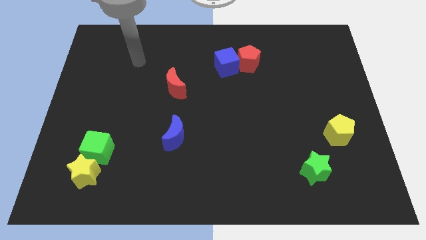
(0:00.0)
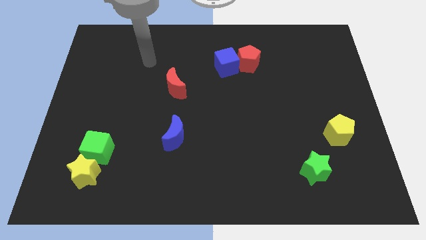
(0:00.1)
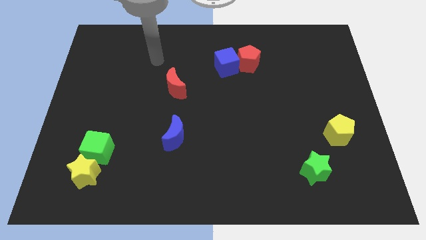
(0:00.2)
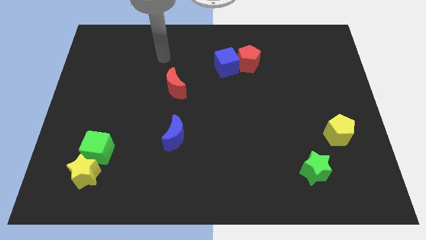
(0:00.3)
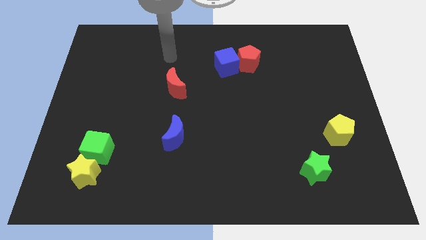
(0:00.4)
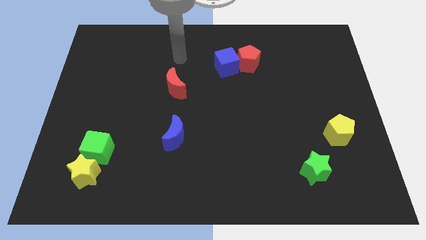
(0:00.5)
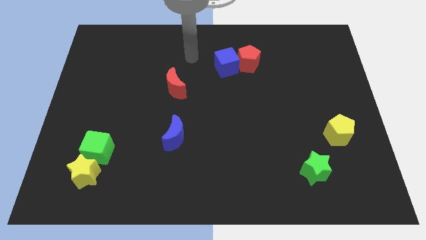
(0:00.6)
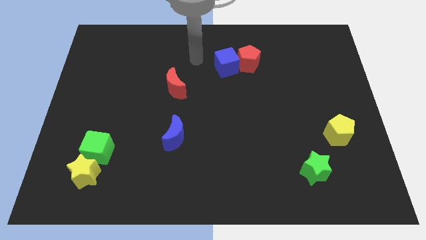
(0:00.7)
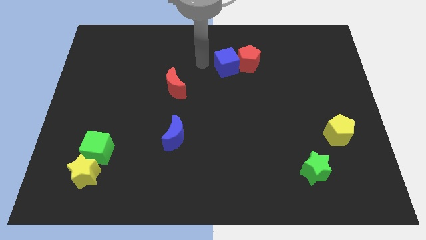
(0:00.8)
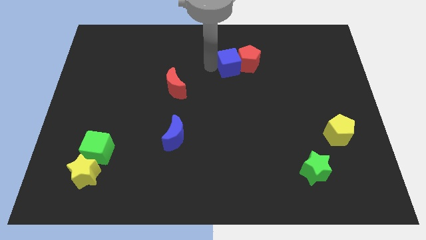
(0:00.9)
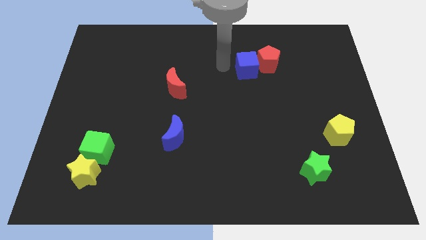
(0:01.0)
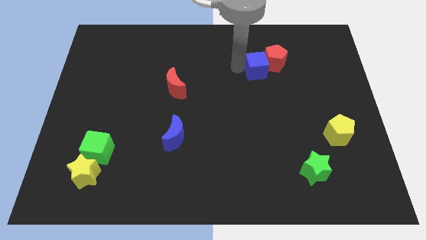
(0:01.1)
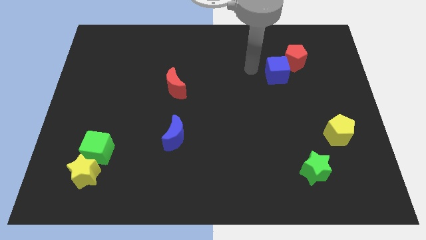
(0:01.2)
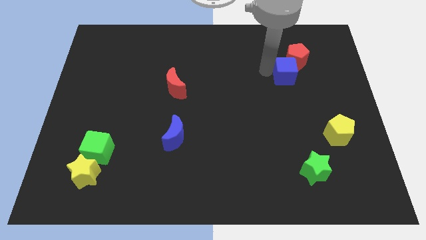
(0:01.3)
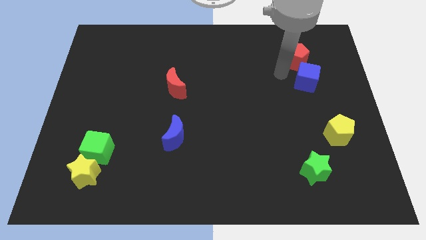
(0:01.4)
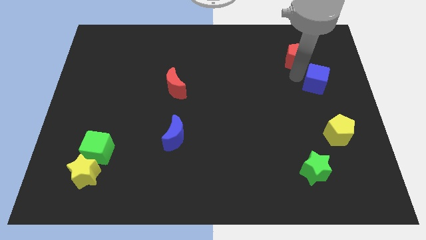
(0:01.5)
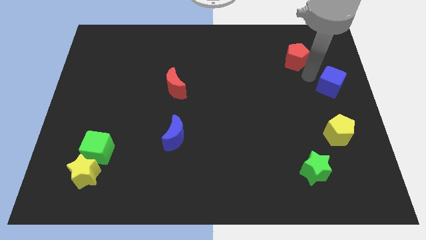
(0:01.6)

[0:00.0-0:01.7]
move the red pentagon away from the blue cube

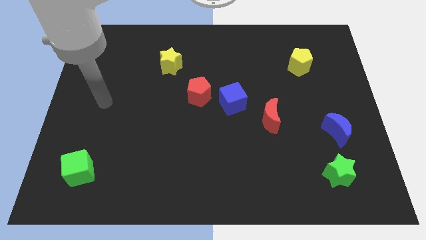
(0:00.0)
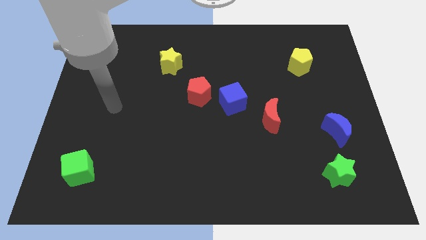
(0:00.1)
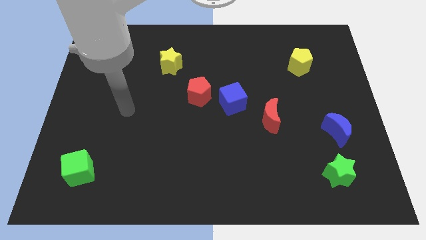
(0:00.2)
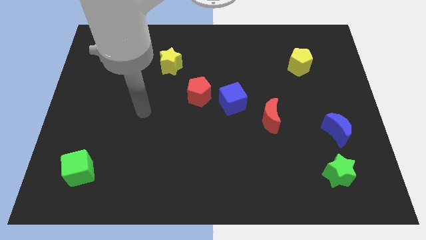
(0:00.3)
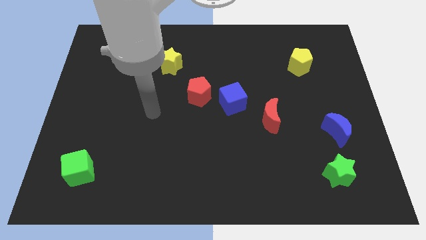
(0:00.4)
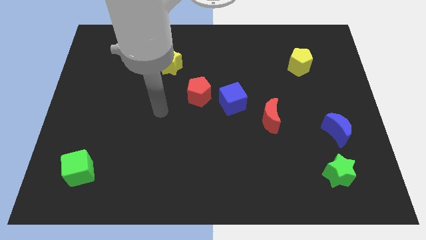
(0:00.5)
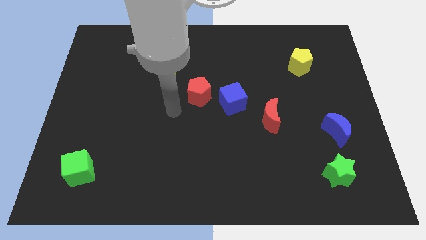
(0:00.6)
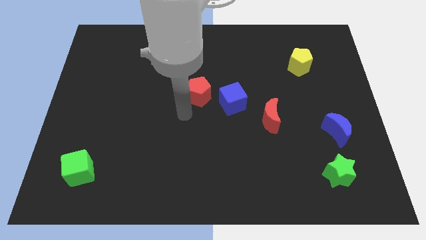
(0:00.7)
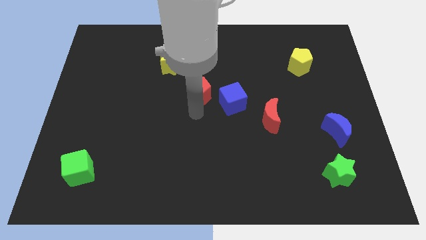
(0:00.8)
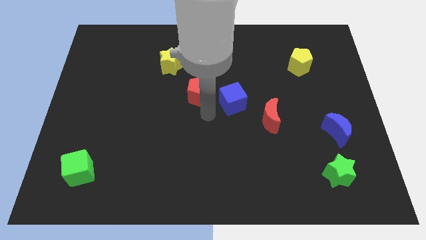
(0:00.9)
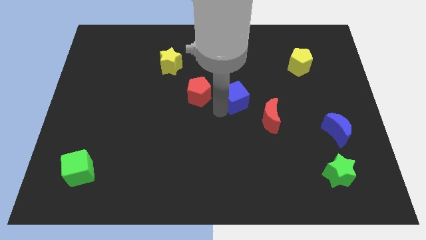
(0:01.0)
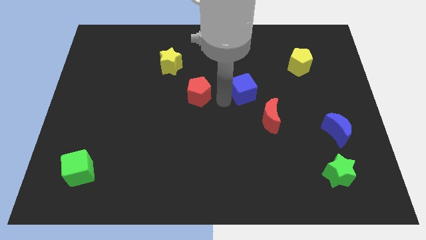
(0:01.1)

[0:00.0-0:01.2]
separate the red pentagon from the blue cube

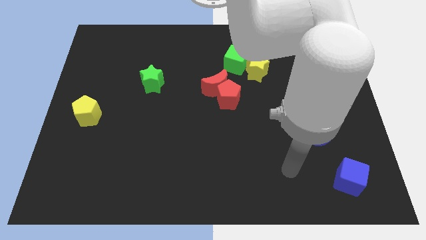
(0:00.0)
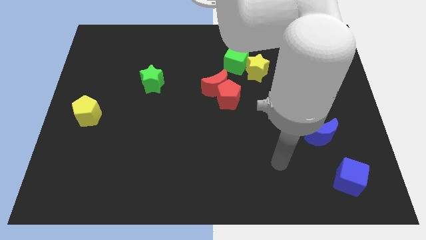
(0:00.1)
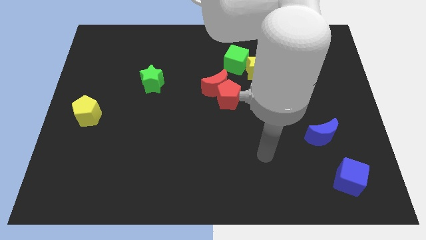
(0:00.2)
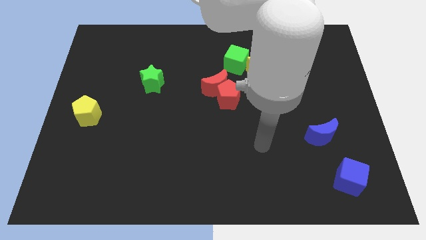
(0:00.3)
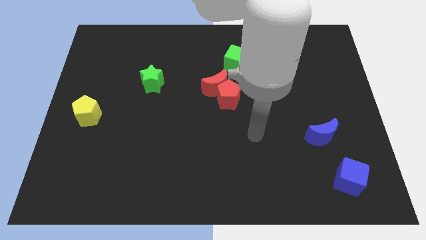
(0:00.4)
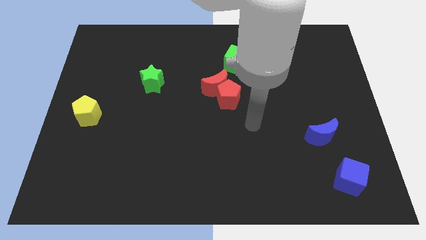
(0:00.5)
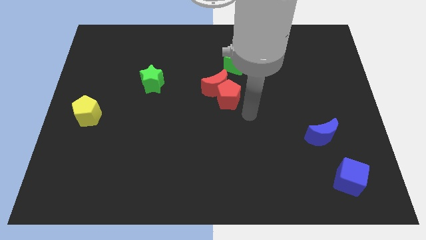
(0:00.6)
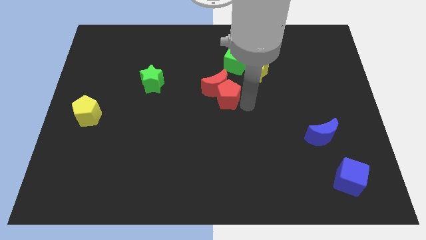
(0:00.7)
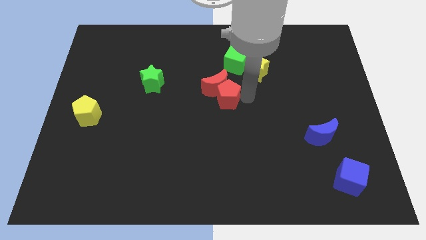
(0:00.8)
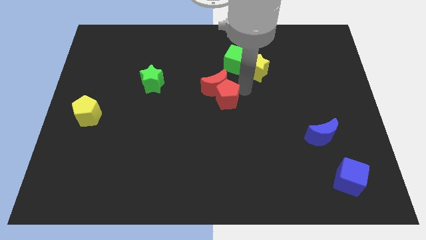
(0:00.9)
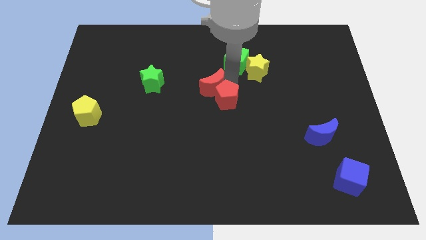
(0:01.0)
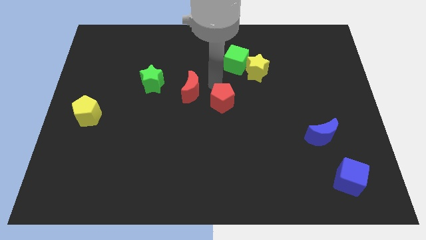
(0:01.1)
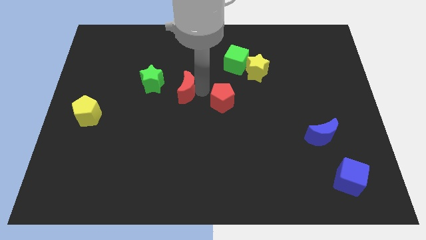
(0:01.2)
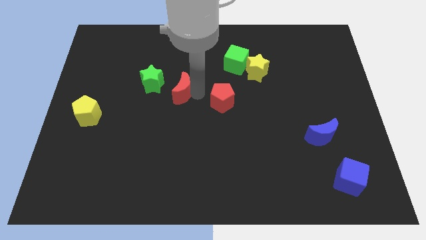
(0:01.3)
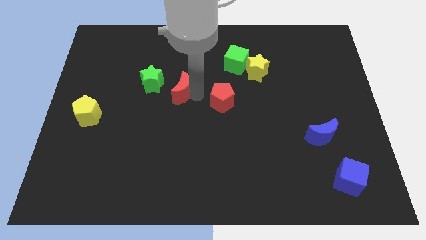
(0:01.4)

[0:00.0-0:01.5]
move the red pentagon away from the red moon

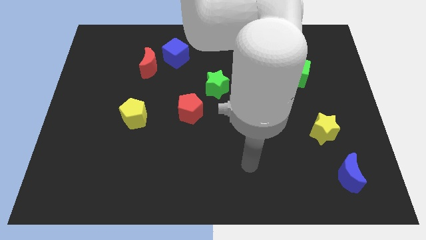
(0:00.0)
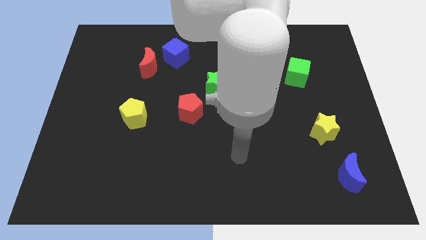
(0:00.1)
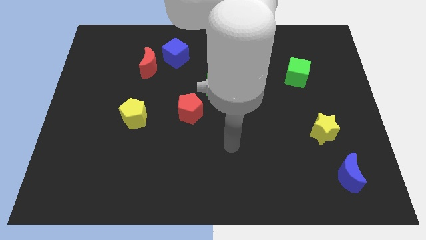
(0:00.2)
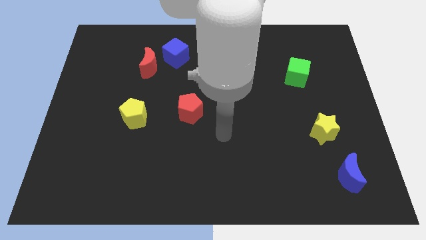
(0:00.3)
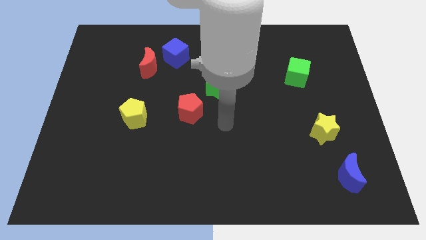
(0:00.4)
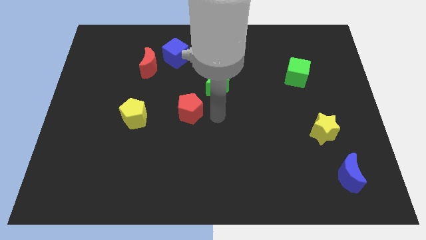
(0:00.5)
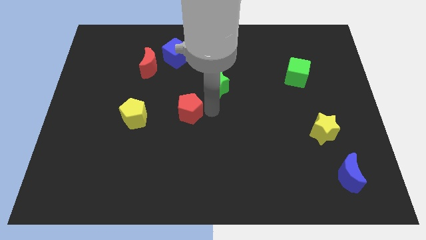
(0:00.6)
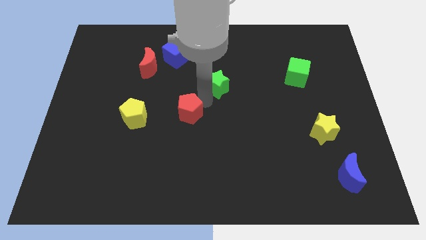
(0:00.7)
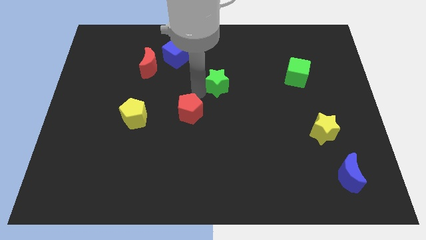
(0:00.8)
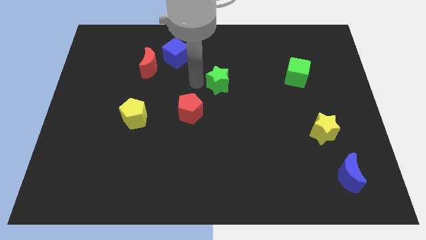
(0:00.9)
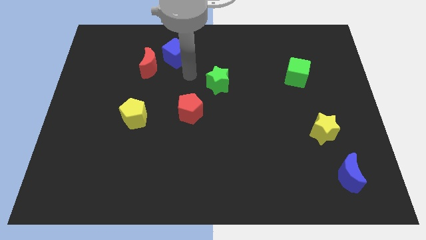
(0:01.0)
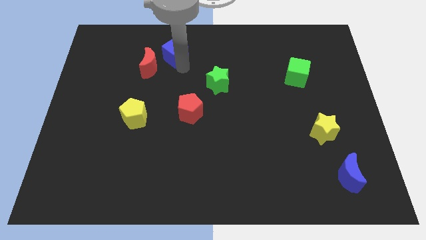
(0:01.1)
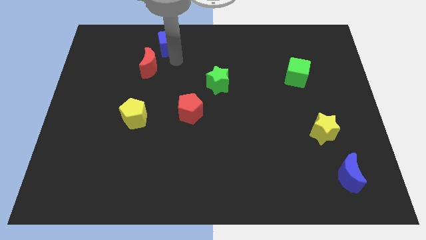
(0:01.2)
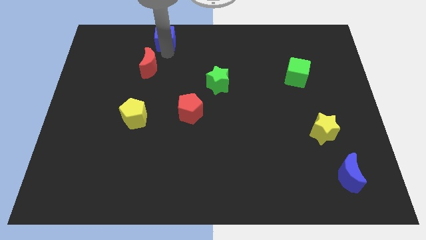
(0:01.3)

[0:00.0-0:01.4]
separate the red moon from the blue cube

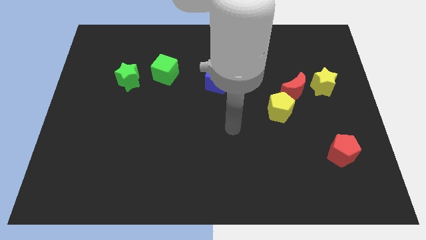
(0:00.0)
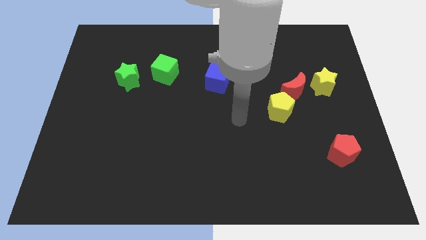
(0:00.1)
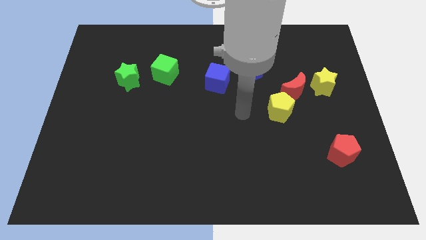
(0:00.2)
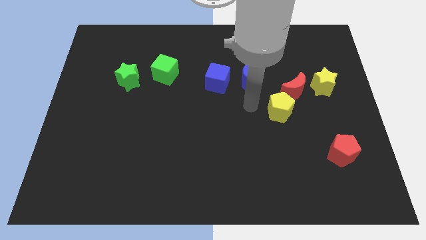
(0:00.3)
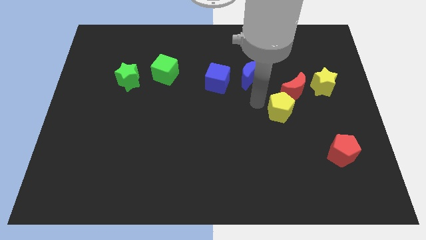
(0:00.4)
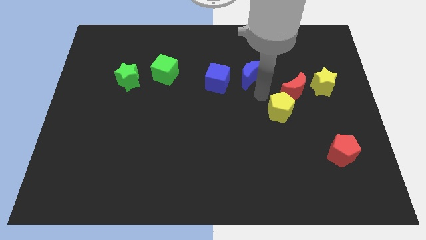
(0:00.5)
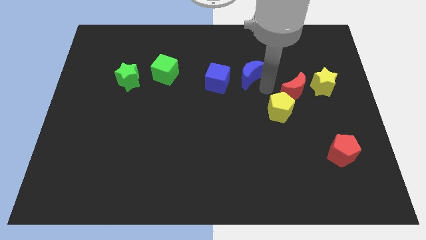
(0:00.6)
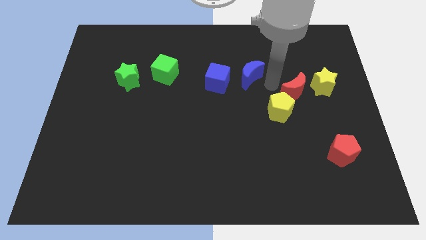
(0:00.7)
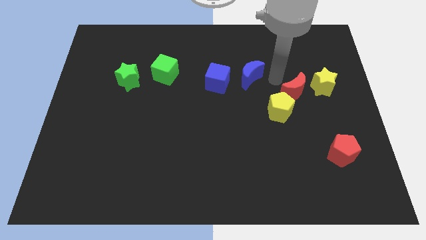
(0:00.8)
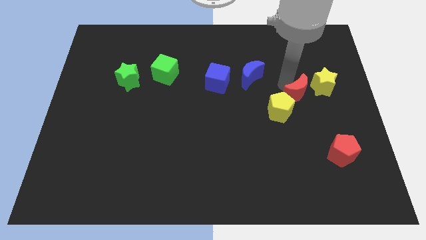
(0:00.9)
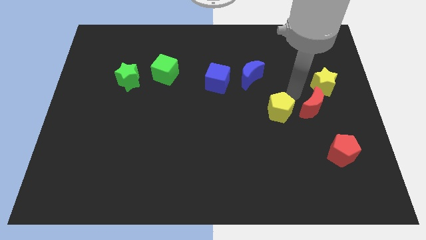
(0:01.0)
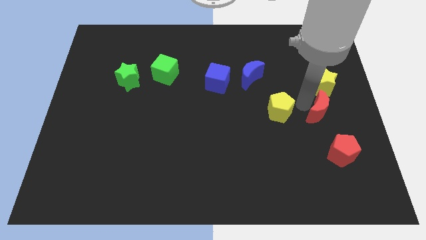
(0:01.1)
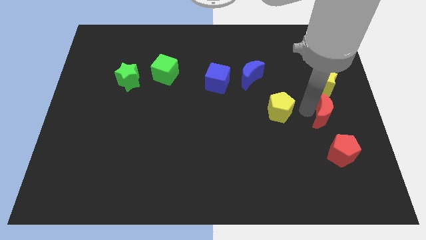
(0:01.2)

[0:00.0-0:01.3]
move the yellow pentagon away from the red moon

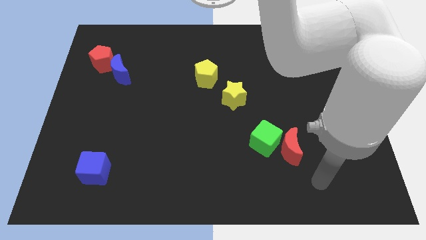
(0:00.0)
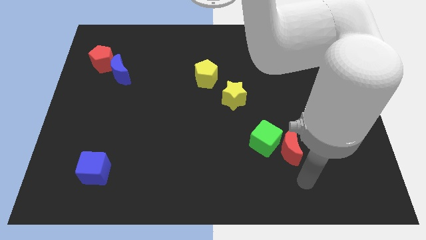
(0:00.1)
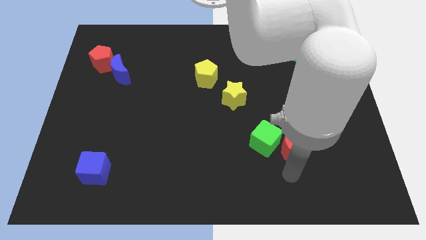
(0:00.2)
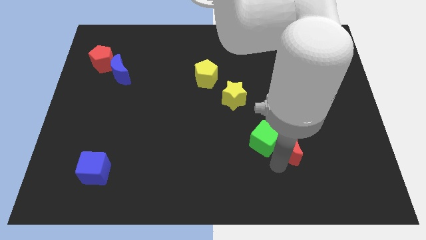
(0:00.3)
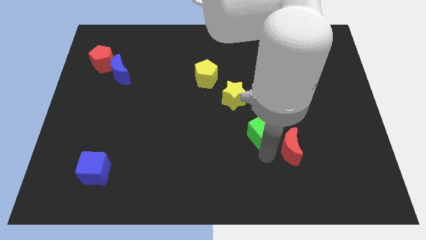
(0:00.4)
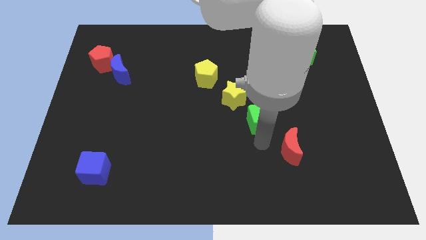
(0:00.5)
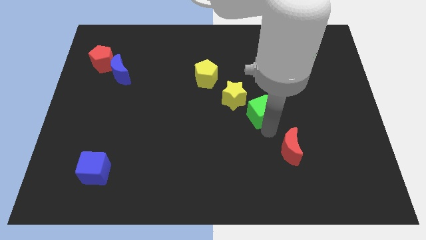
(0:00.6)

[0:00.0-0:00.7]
separate the red moon from the green cube

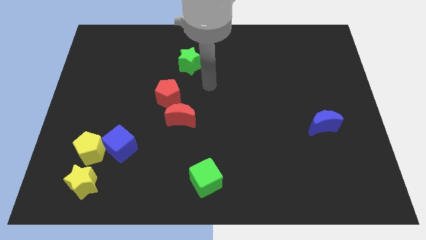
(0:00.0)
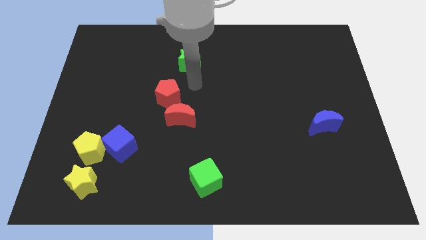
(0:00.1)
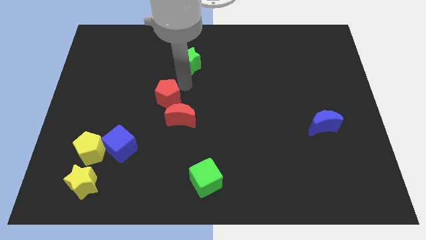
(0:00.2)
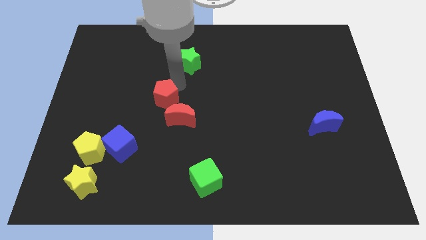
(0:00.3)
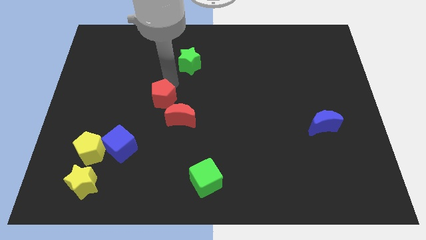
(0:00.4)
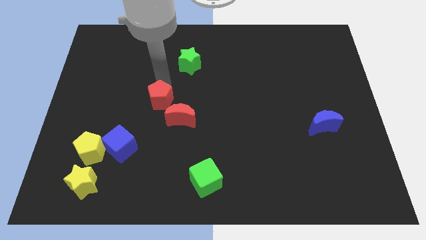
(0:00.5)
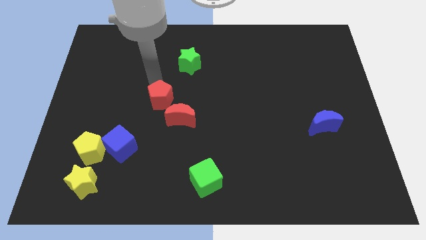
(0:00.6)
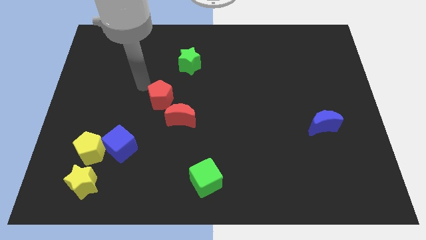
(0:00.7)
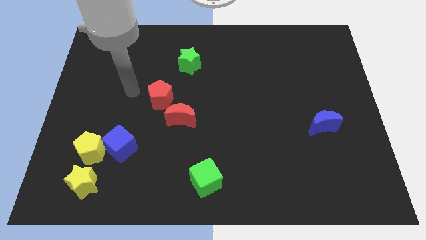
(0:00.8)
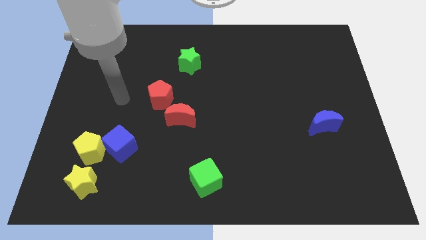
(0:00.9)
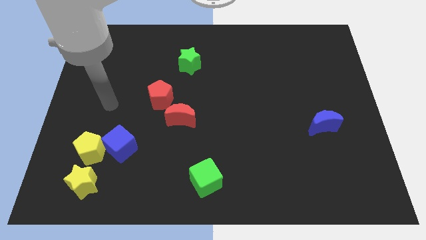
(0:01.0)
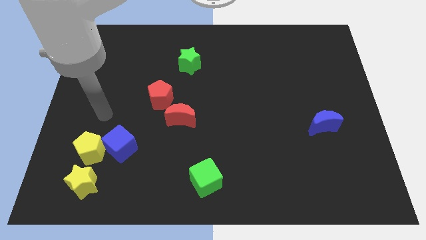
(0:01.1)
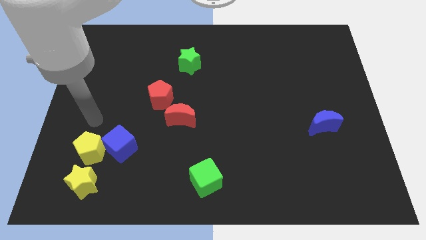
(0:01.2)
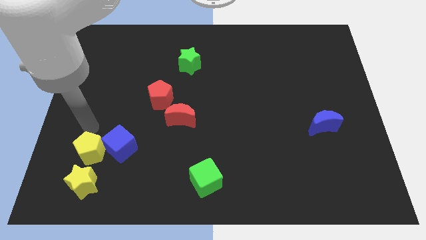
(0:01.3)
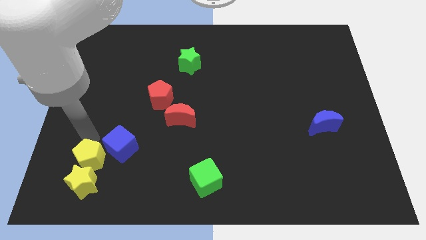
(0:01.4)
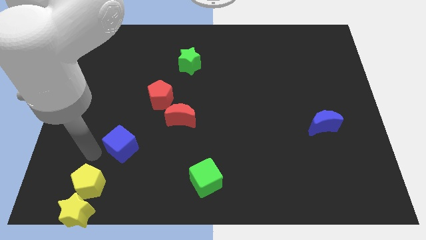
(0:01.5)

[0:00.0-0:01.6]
pull the blue cube apart from the yellow pentagon
